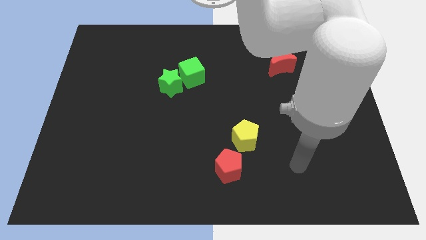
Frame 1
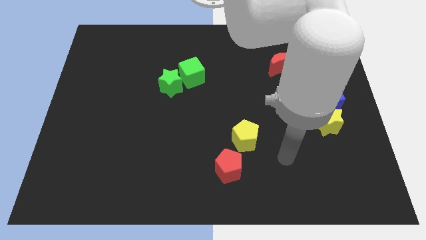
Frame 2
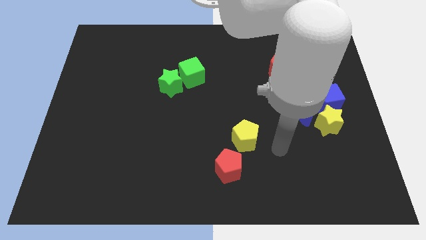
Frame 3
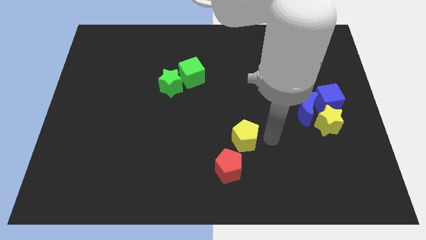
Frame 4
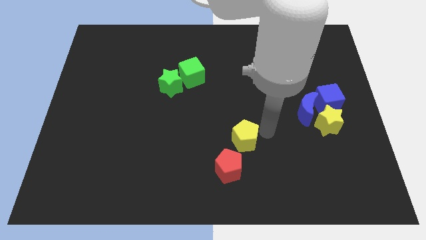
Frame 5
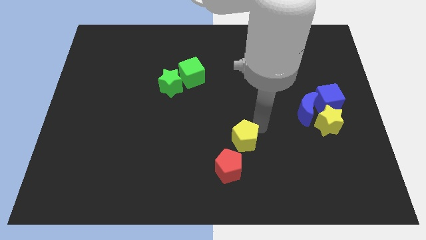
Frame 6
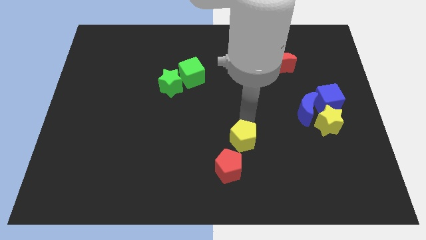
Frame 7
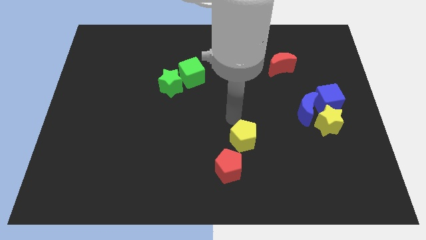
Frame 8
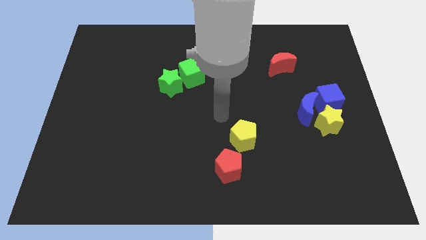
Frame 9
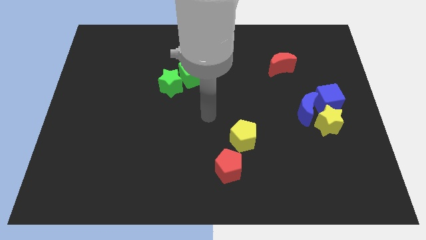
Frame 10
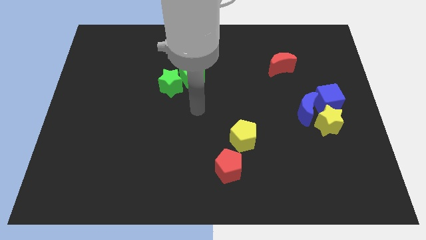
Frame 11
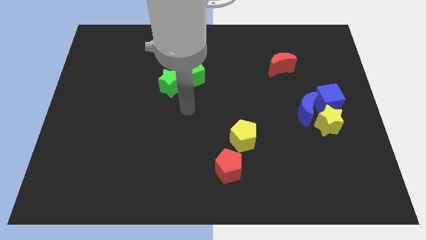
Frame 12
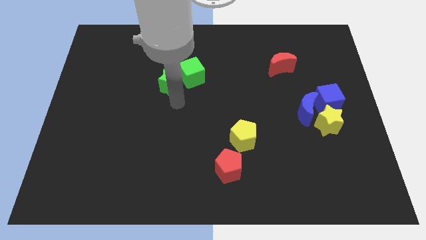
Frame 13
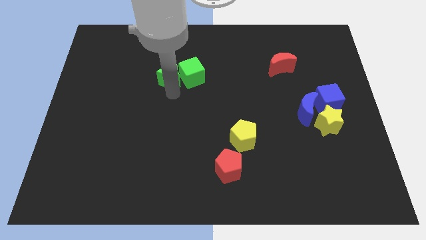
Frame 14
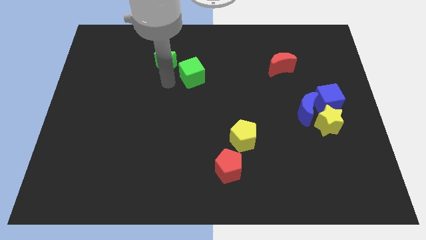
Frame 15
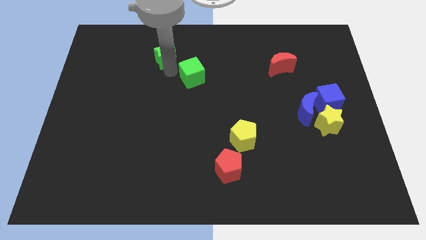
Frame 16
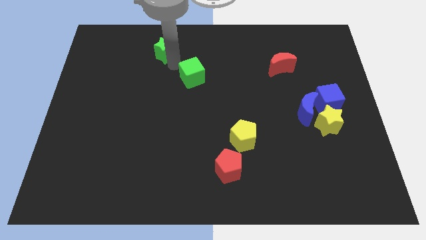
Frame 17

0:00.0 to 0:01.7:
move the green cube away from the green star

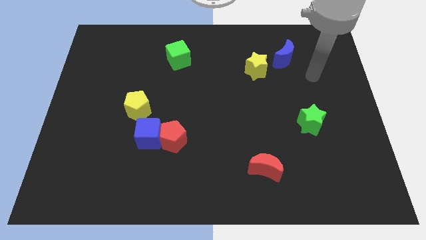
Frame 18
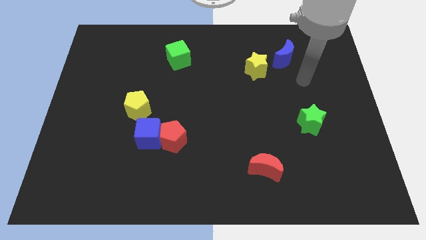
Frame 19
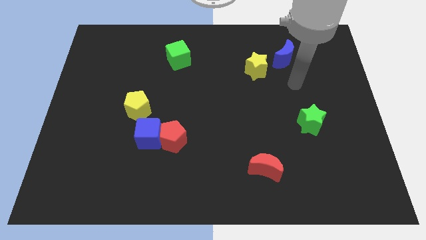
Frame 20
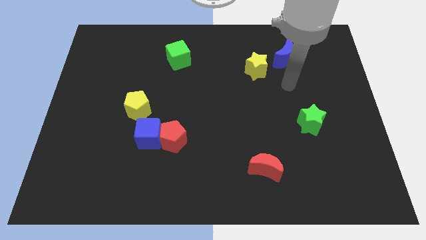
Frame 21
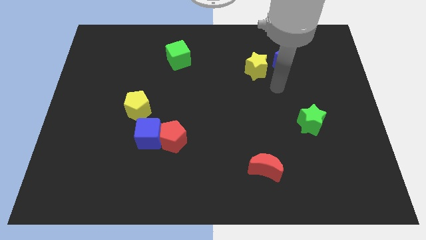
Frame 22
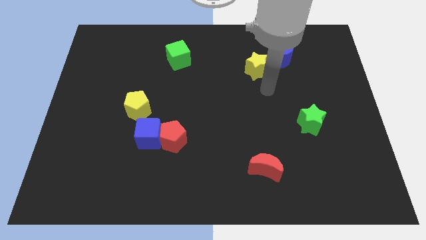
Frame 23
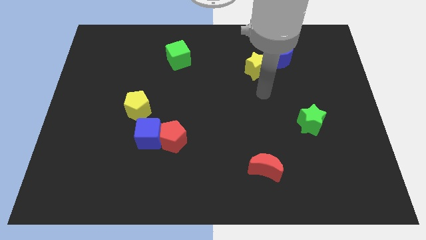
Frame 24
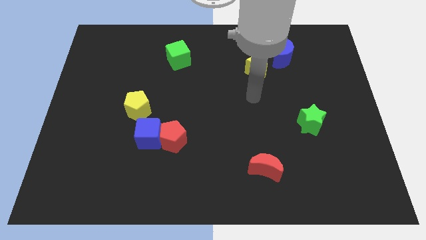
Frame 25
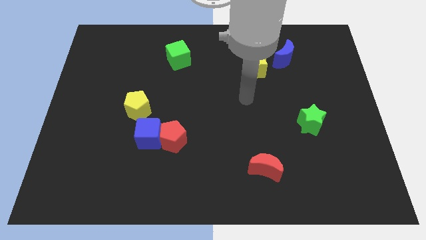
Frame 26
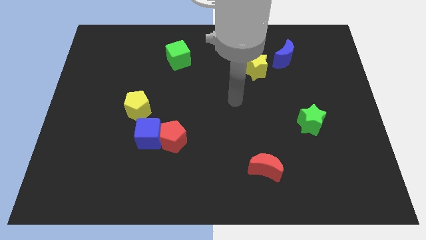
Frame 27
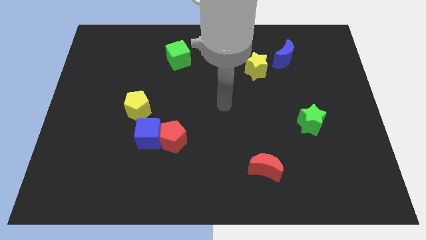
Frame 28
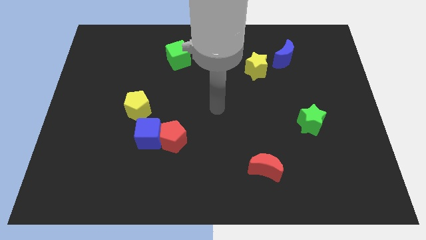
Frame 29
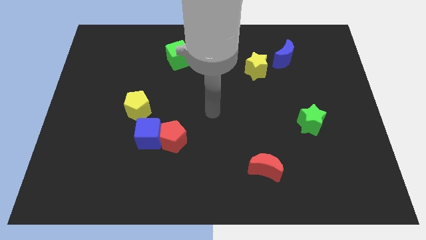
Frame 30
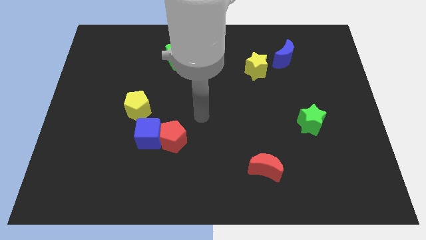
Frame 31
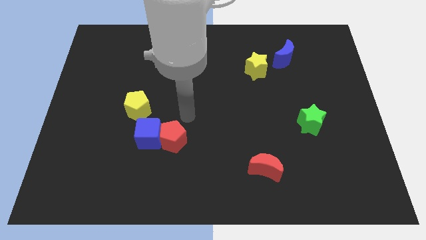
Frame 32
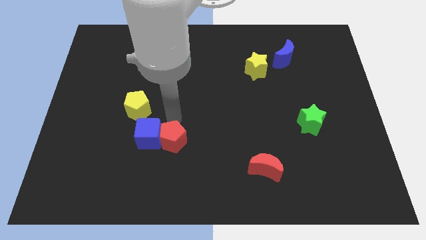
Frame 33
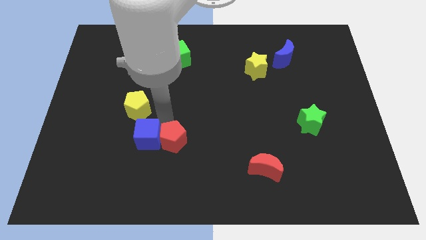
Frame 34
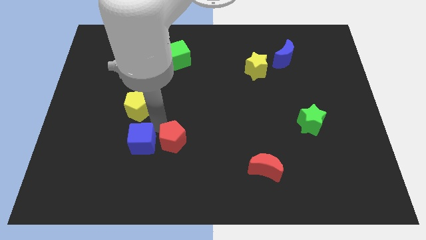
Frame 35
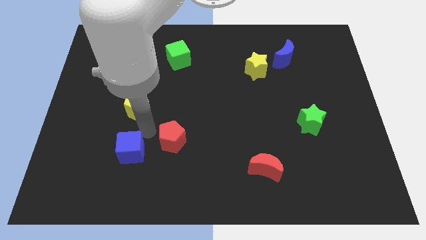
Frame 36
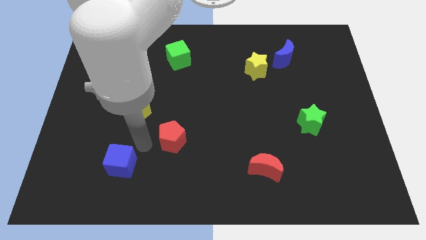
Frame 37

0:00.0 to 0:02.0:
separate the red pentagon from the blue cube

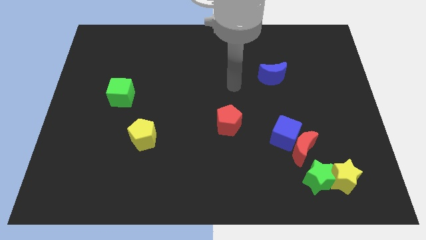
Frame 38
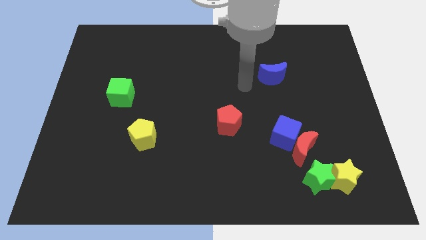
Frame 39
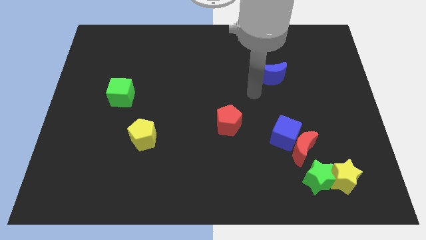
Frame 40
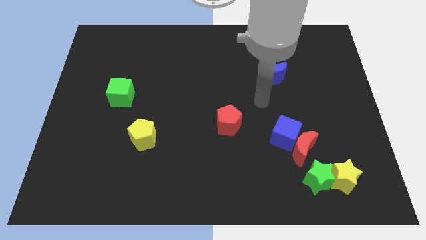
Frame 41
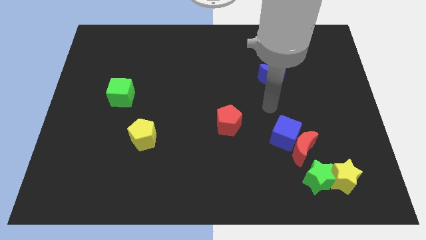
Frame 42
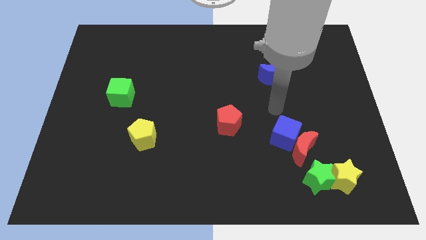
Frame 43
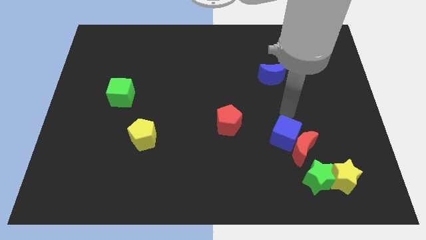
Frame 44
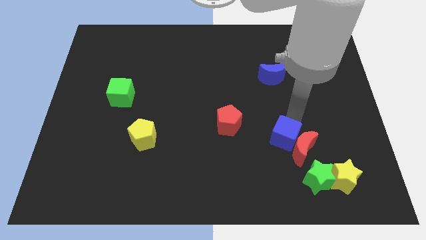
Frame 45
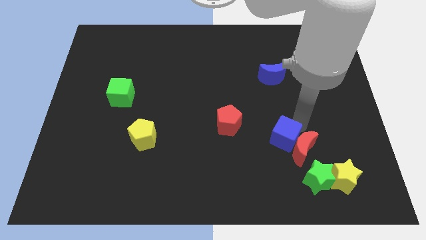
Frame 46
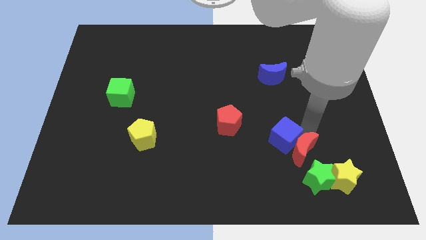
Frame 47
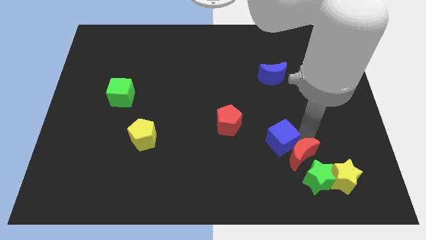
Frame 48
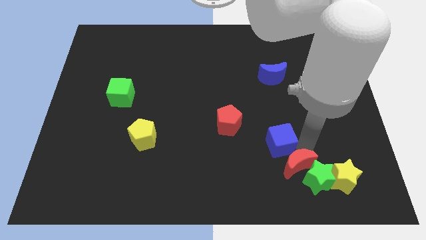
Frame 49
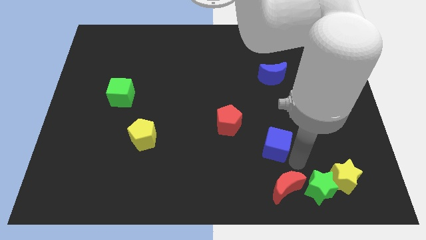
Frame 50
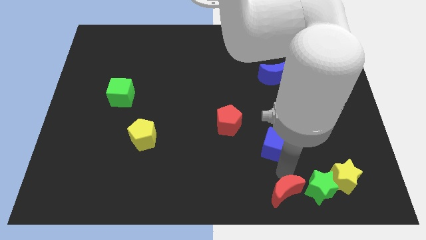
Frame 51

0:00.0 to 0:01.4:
separate the blue cube from the red moon

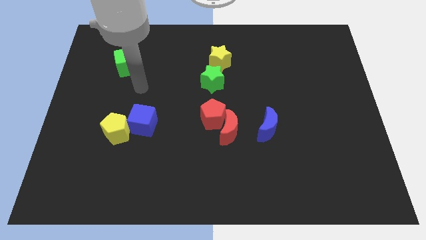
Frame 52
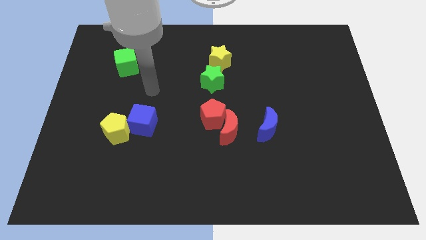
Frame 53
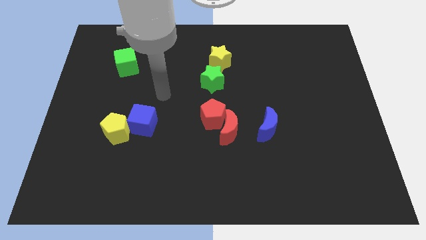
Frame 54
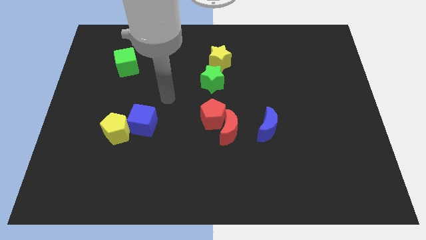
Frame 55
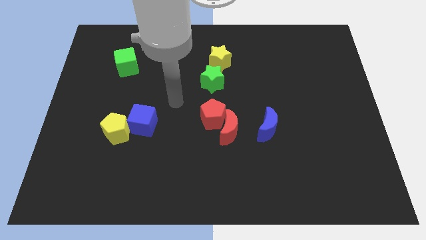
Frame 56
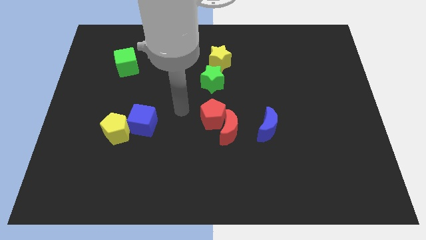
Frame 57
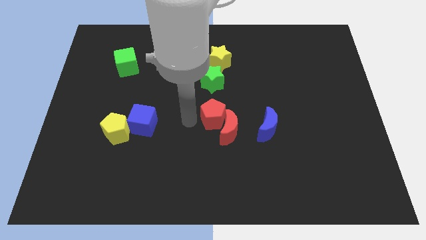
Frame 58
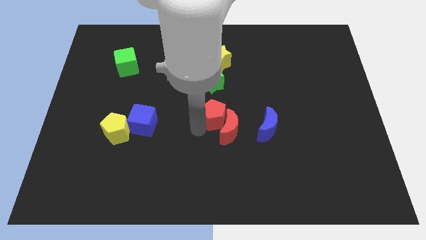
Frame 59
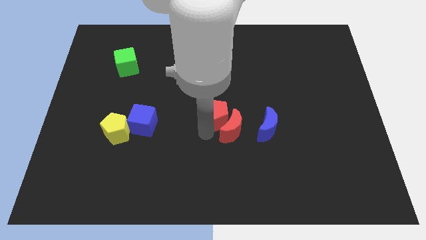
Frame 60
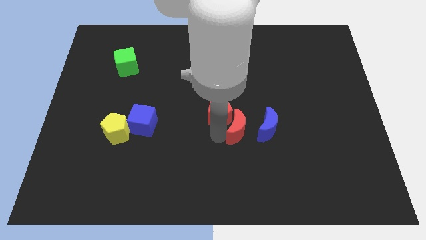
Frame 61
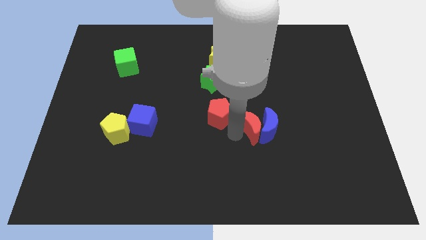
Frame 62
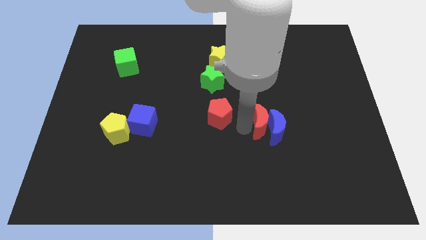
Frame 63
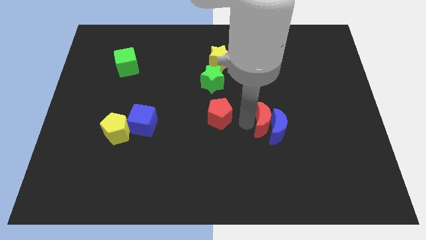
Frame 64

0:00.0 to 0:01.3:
move the red pentagon away from the red moon

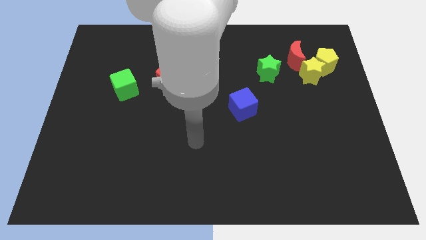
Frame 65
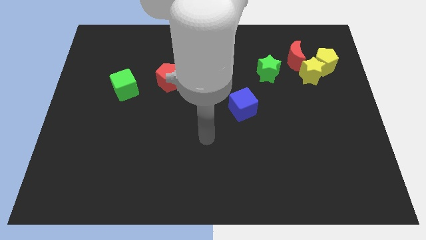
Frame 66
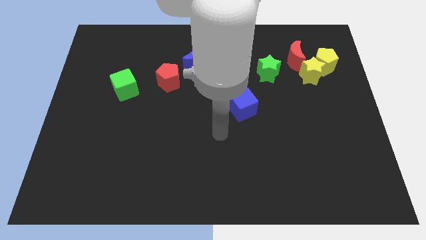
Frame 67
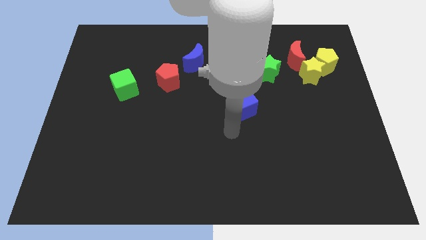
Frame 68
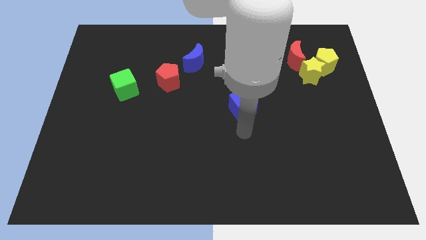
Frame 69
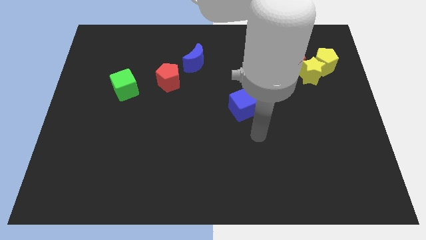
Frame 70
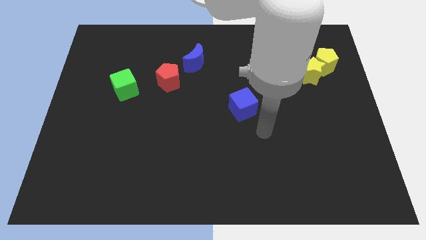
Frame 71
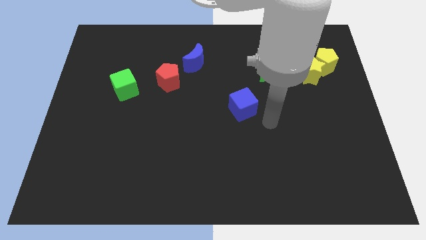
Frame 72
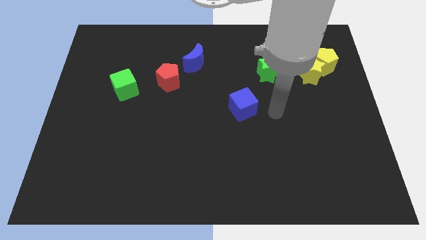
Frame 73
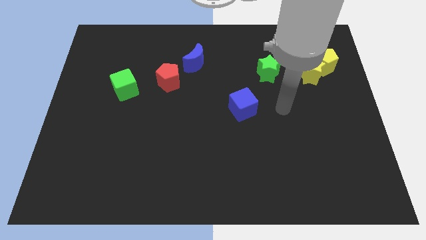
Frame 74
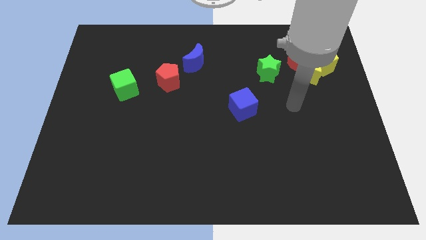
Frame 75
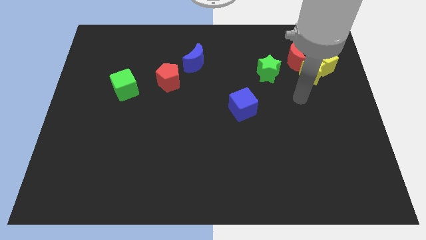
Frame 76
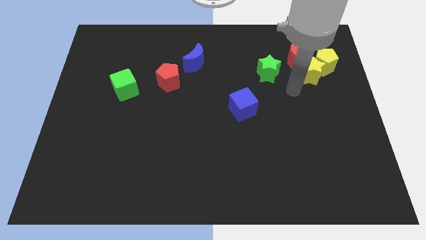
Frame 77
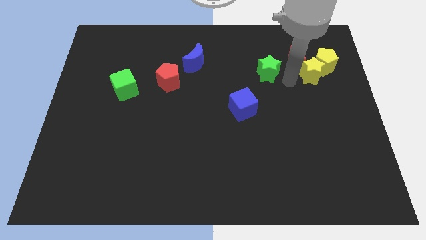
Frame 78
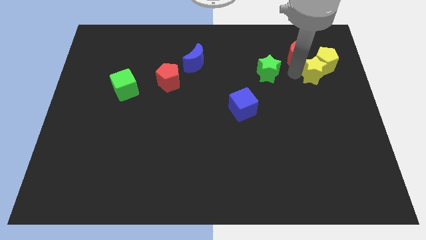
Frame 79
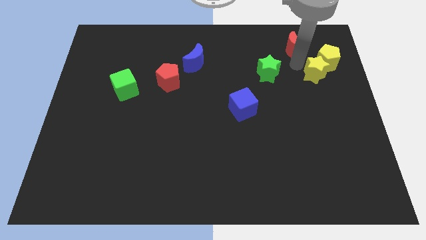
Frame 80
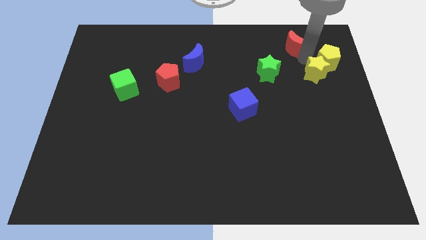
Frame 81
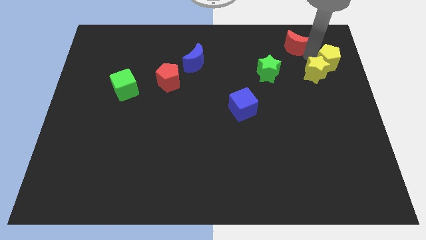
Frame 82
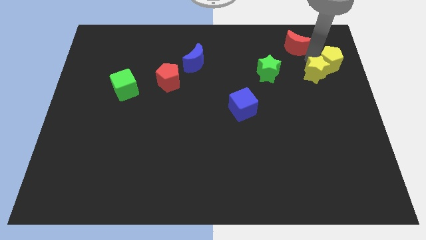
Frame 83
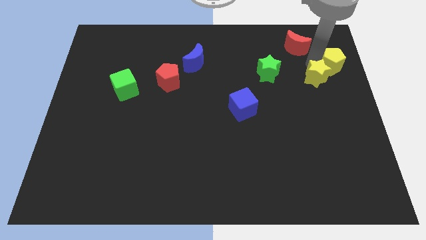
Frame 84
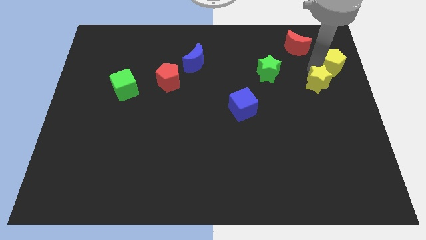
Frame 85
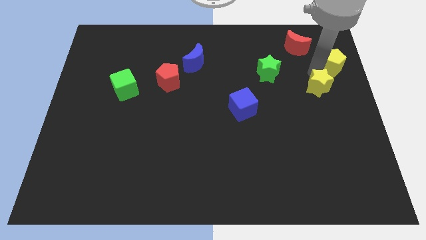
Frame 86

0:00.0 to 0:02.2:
separate the yellow star from the yellow pentagon and red moon

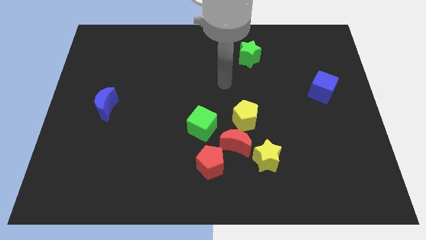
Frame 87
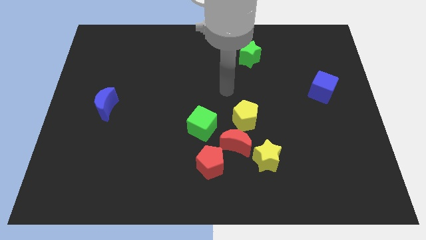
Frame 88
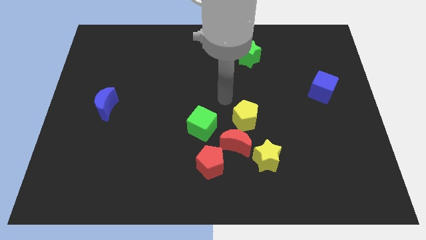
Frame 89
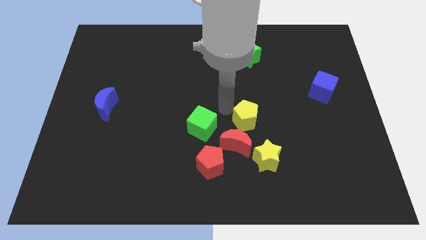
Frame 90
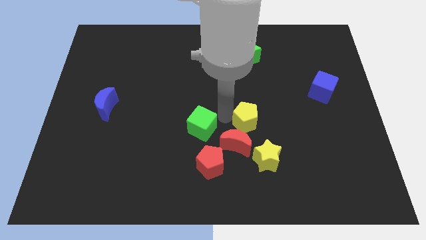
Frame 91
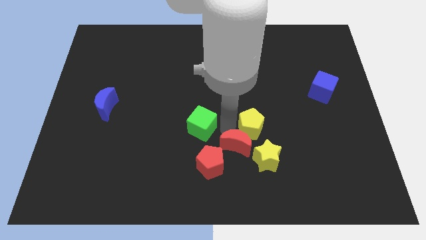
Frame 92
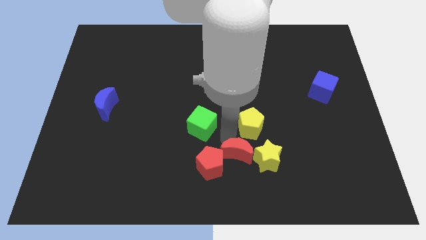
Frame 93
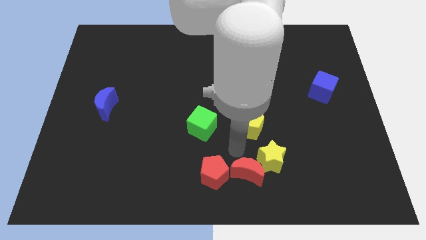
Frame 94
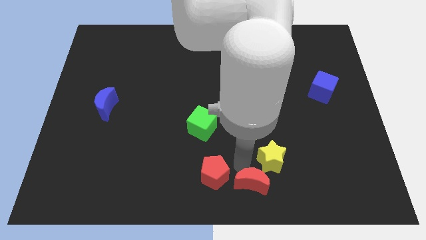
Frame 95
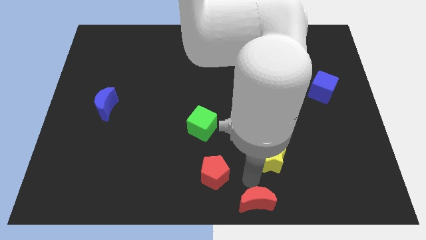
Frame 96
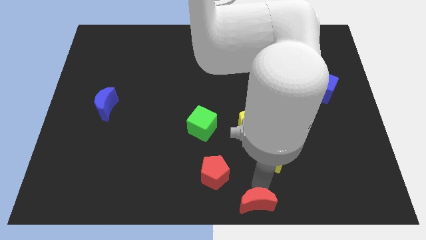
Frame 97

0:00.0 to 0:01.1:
move the yellow star away from the red moon
